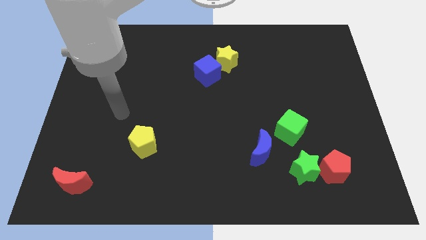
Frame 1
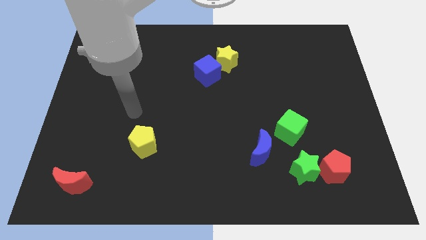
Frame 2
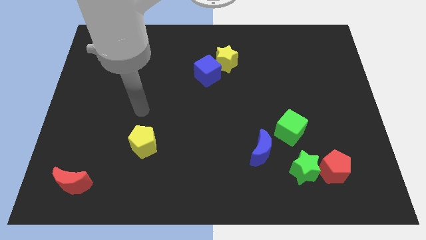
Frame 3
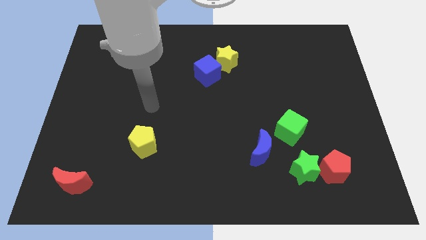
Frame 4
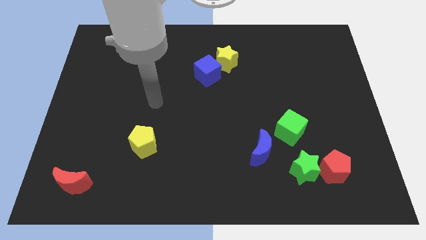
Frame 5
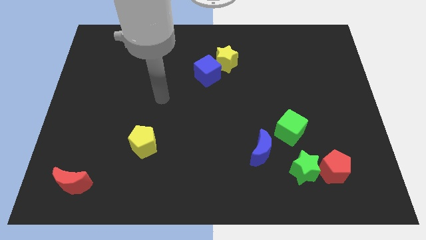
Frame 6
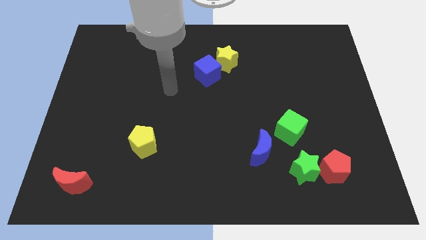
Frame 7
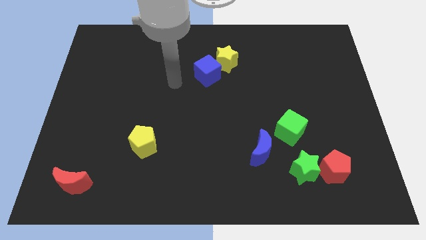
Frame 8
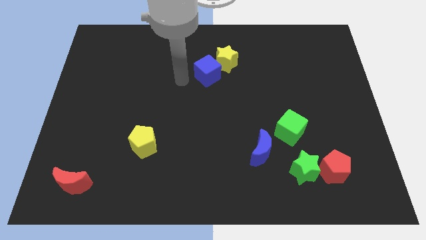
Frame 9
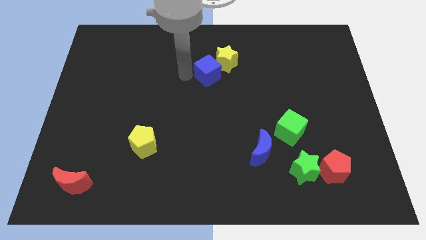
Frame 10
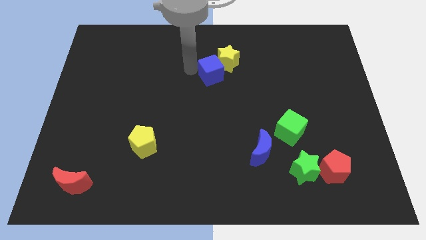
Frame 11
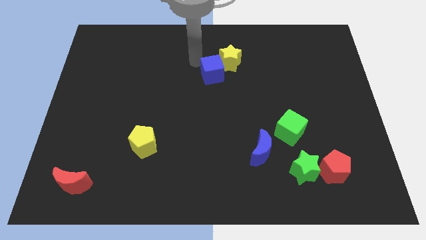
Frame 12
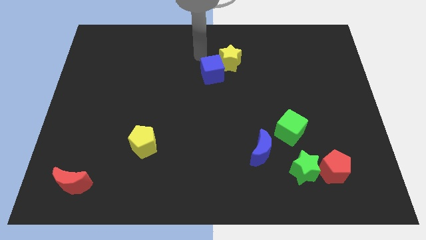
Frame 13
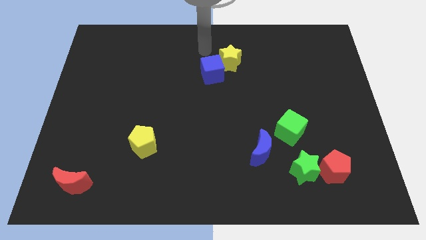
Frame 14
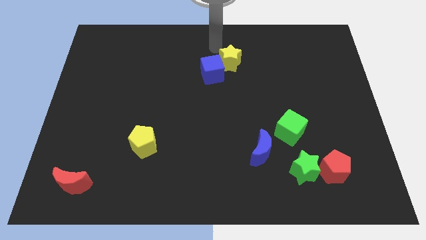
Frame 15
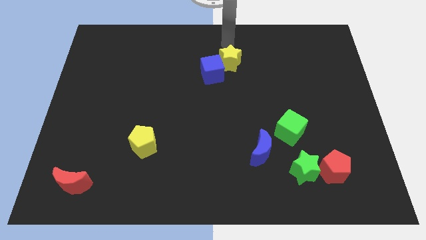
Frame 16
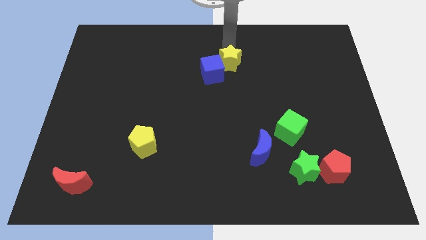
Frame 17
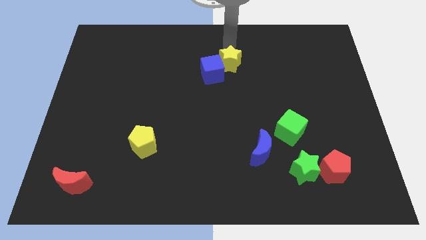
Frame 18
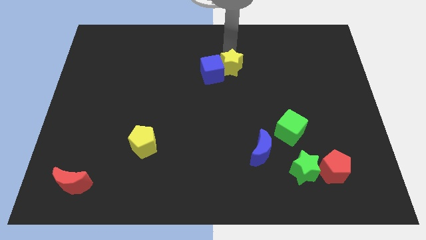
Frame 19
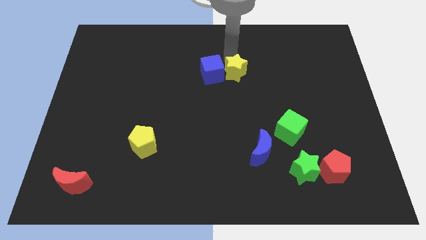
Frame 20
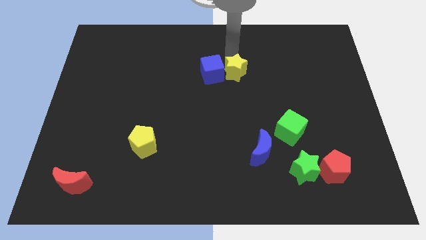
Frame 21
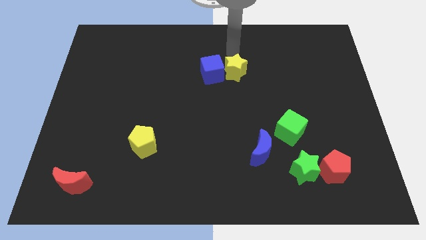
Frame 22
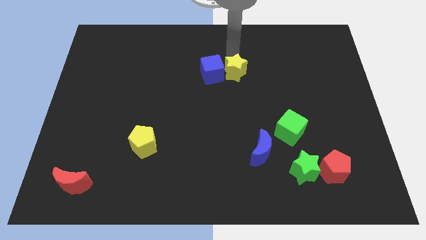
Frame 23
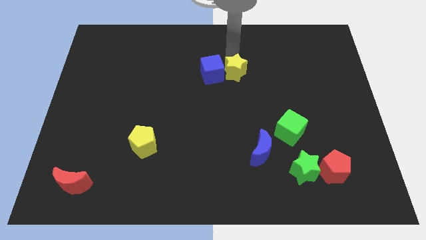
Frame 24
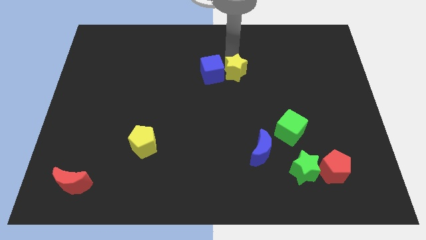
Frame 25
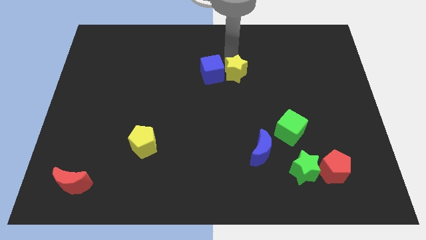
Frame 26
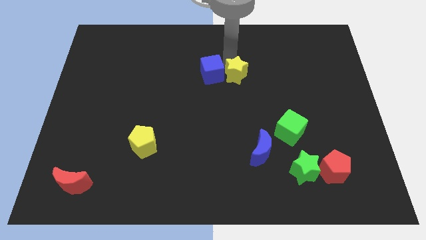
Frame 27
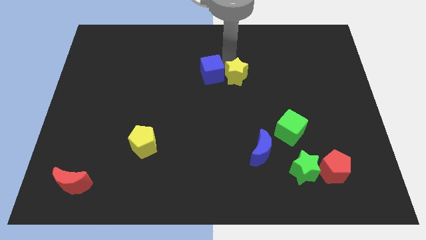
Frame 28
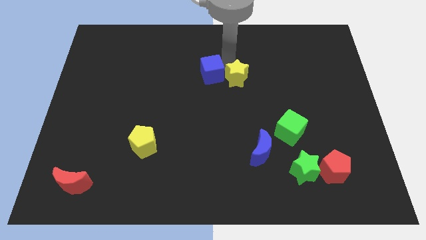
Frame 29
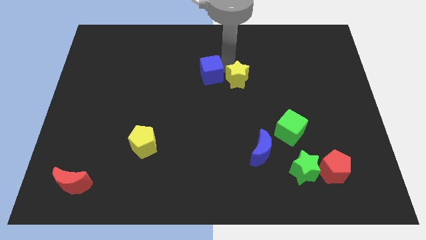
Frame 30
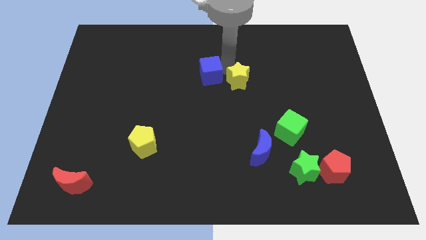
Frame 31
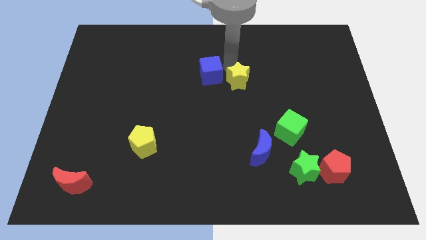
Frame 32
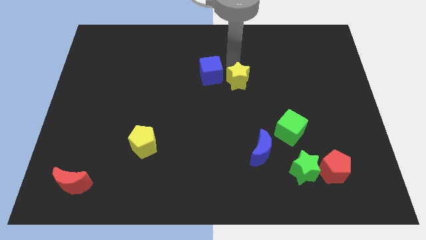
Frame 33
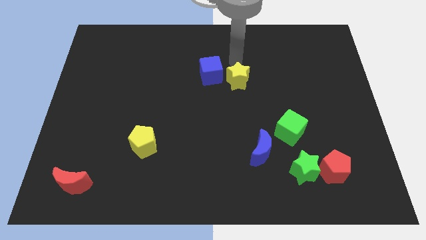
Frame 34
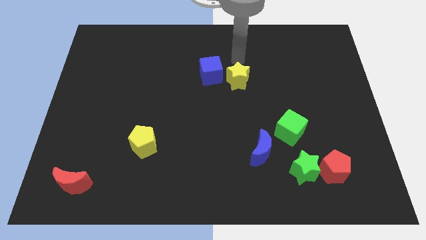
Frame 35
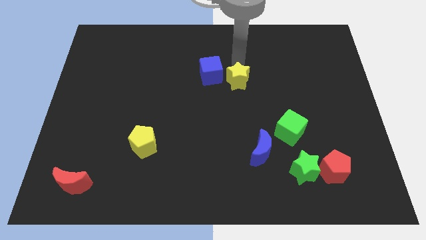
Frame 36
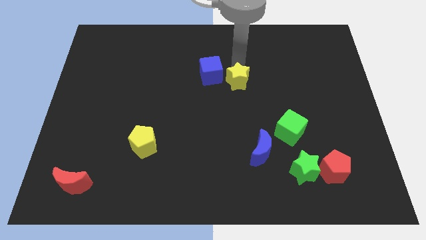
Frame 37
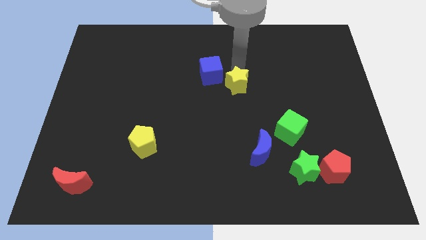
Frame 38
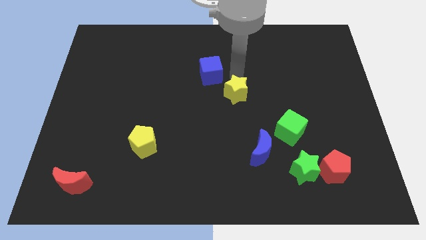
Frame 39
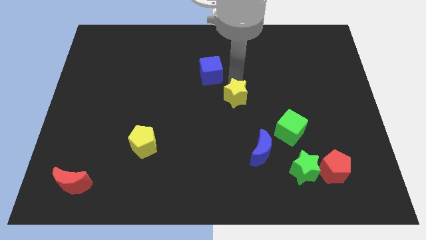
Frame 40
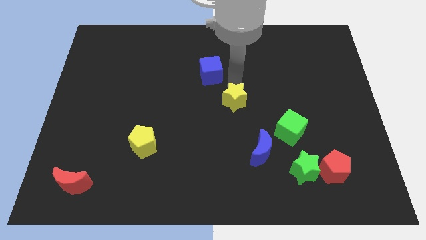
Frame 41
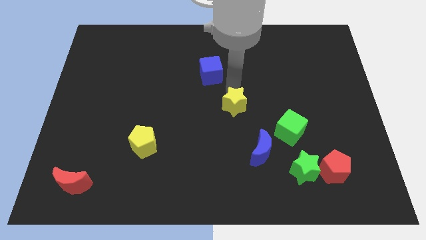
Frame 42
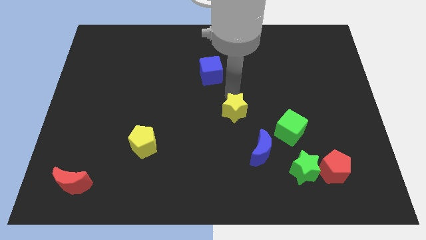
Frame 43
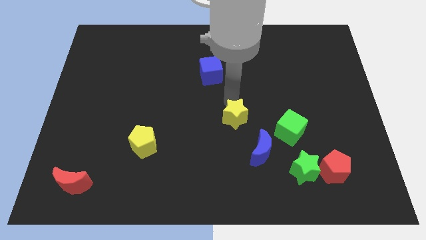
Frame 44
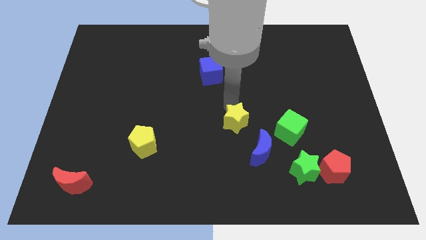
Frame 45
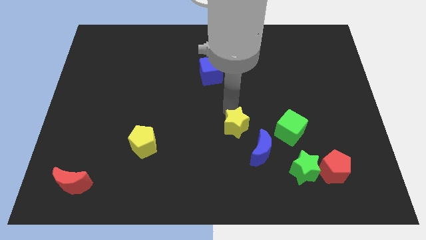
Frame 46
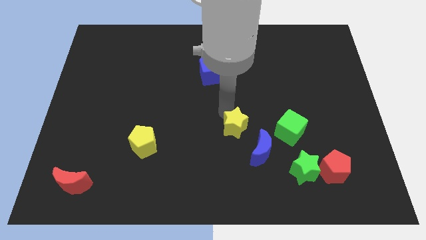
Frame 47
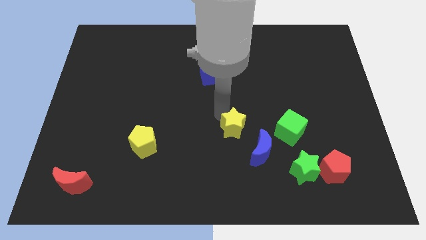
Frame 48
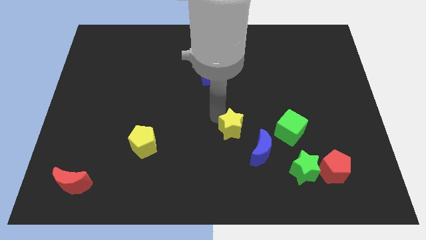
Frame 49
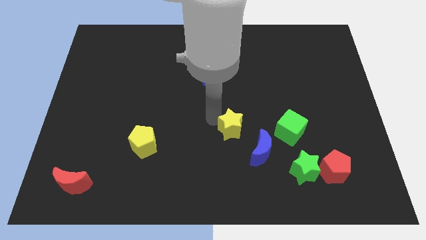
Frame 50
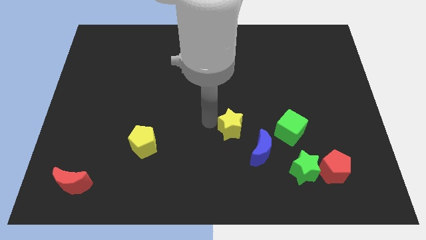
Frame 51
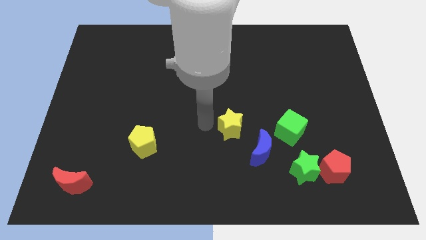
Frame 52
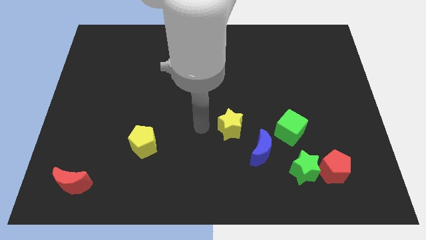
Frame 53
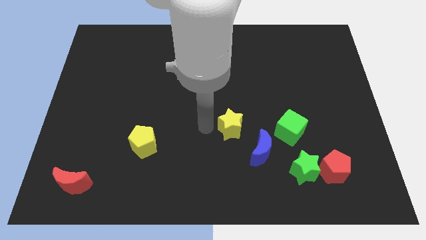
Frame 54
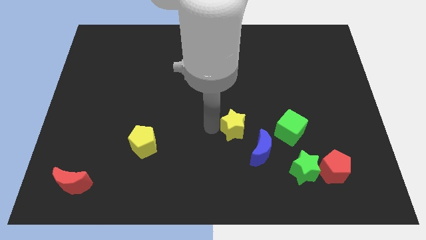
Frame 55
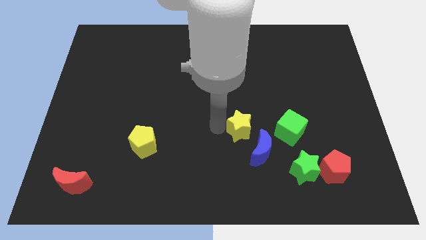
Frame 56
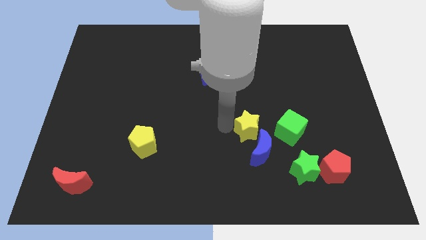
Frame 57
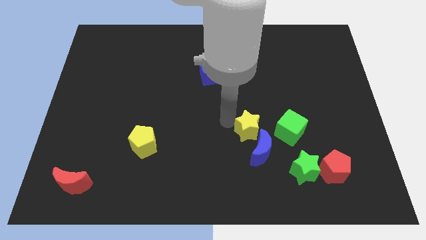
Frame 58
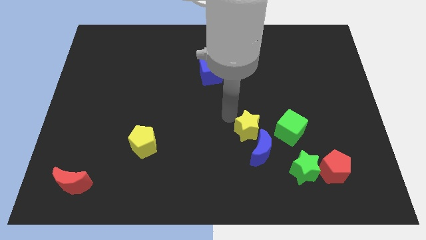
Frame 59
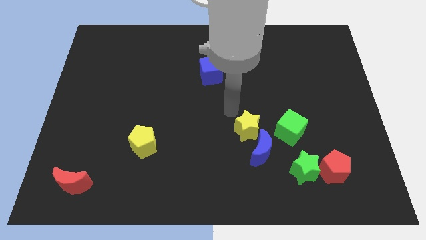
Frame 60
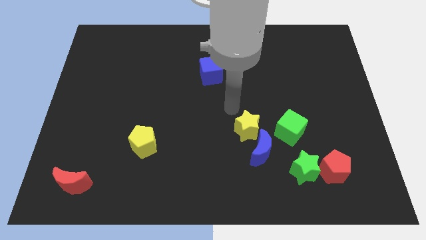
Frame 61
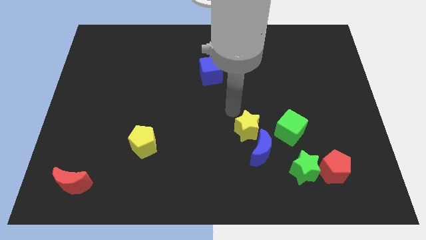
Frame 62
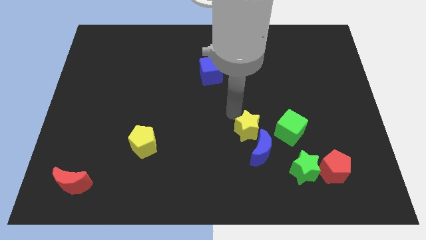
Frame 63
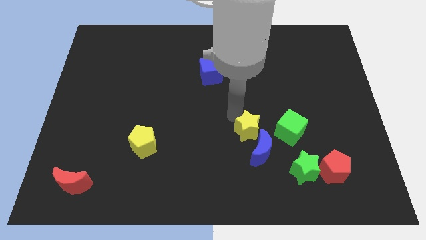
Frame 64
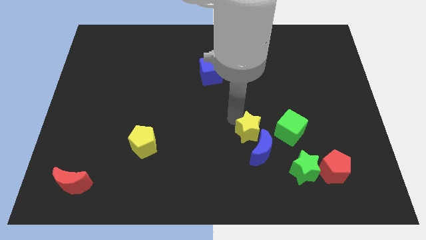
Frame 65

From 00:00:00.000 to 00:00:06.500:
move the yellow star towards the blue moon

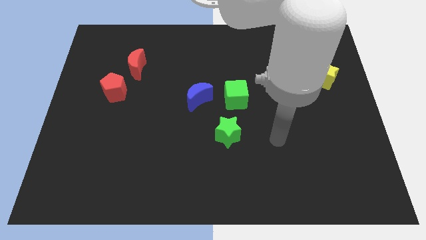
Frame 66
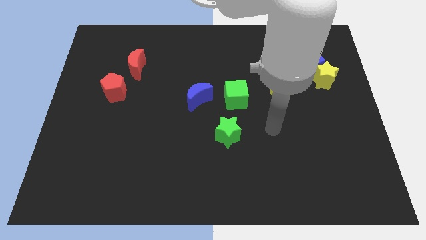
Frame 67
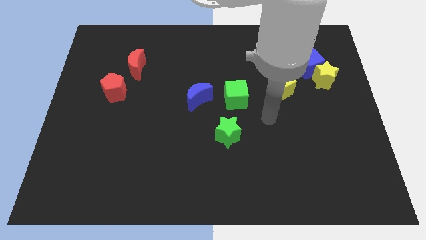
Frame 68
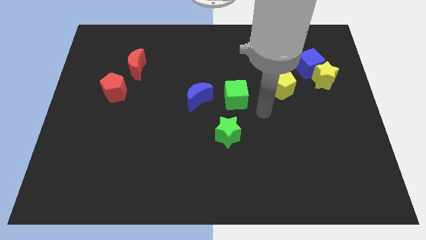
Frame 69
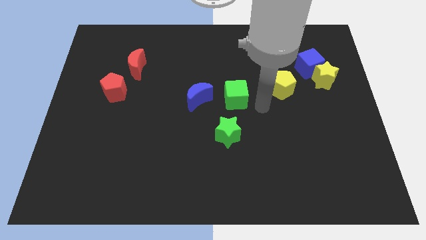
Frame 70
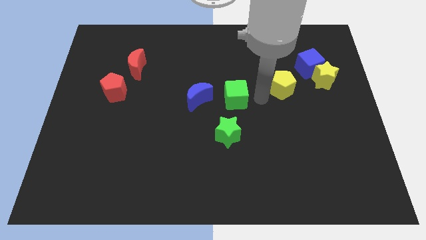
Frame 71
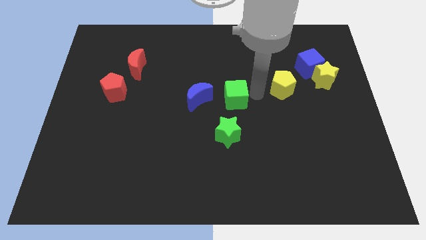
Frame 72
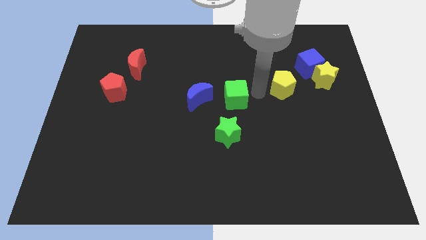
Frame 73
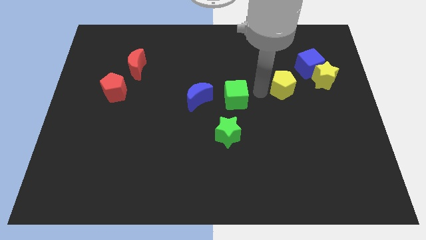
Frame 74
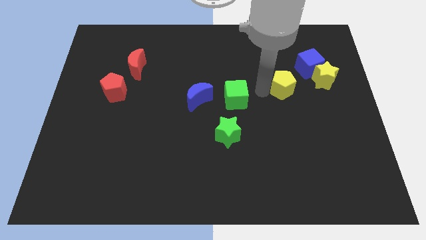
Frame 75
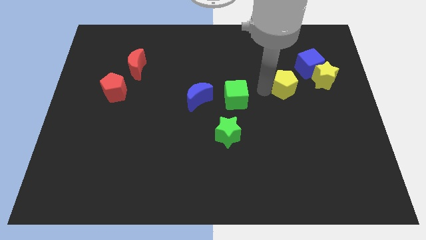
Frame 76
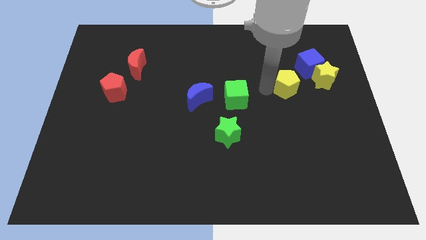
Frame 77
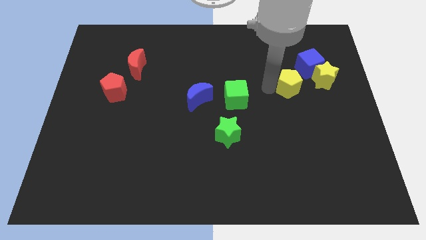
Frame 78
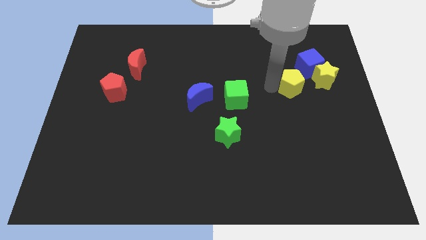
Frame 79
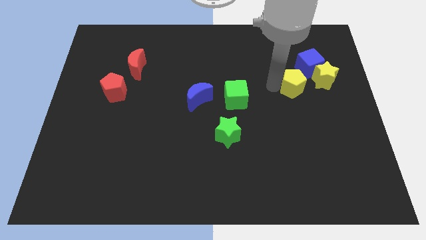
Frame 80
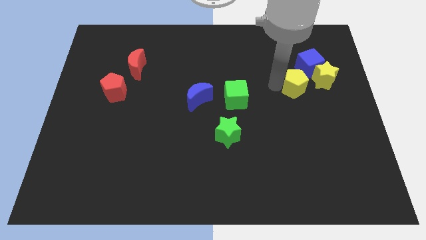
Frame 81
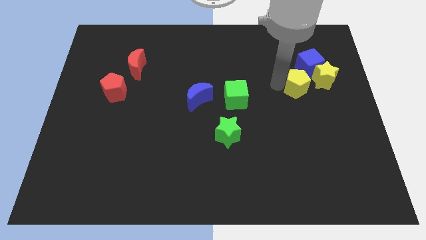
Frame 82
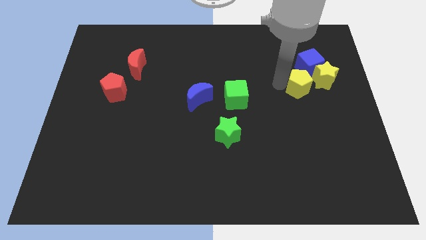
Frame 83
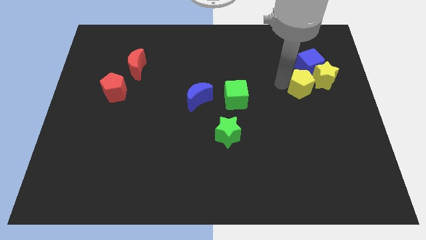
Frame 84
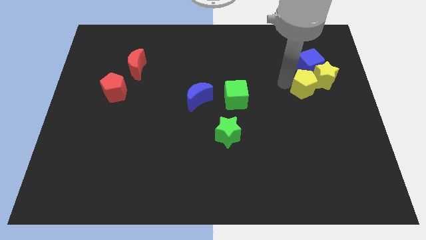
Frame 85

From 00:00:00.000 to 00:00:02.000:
move the yellow pentagon next to the yellow star
